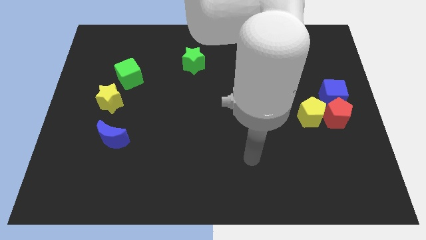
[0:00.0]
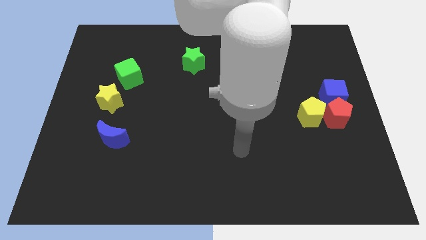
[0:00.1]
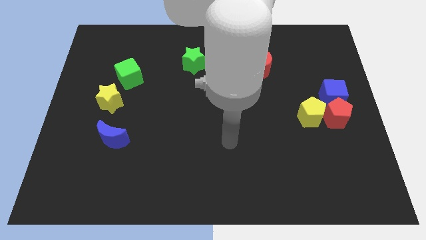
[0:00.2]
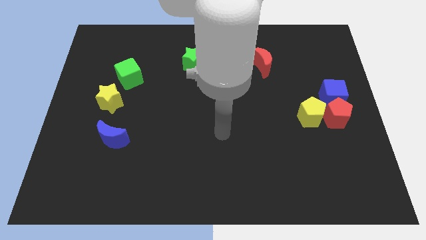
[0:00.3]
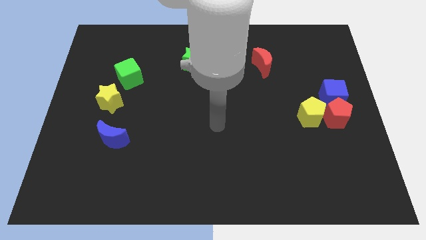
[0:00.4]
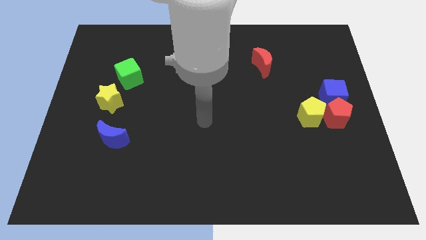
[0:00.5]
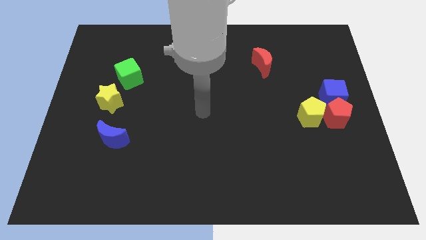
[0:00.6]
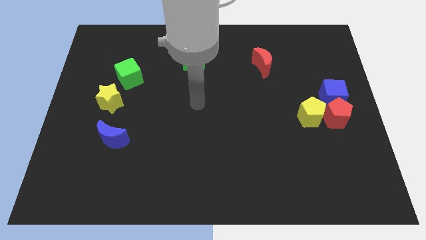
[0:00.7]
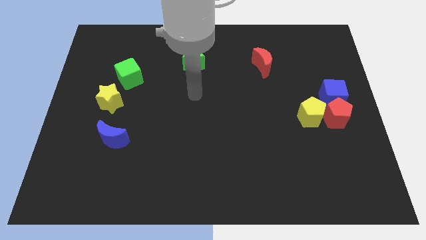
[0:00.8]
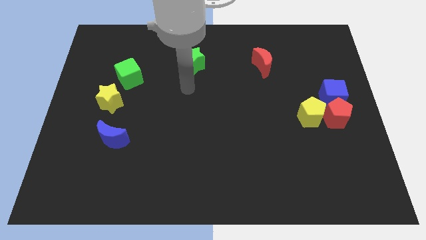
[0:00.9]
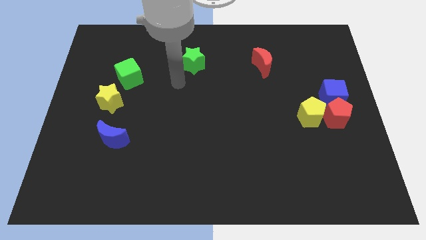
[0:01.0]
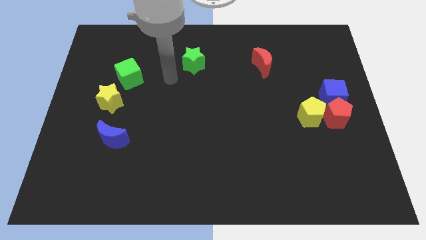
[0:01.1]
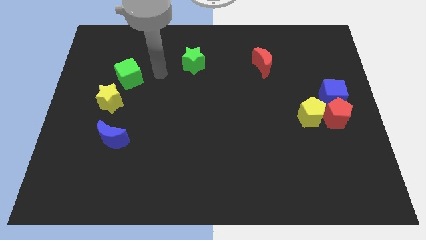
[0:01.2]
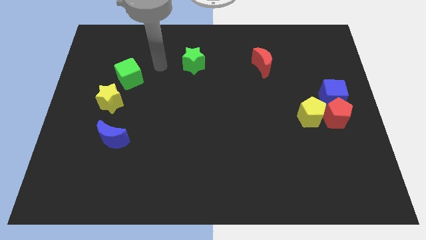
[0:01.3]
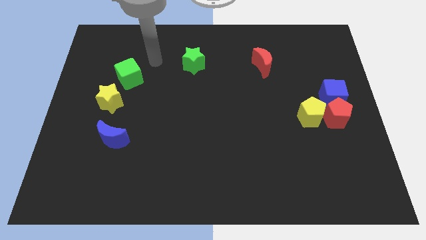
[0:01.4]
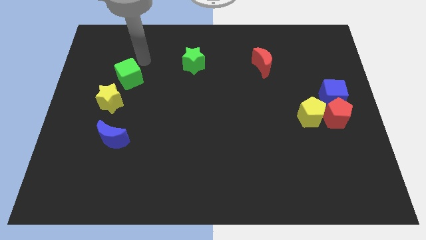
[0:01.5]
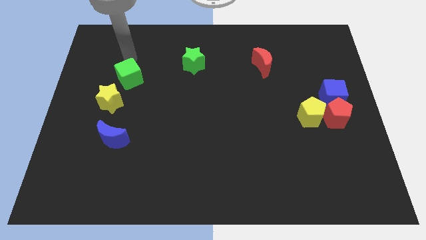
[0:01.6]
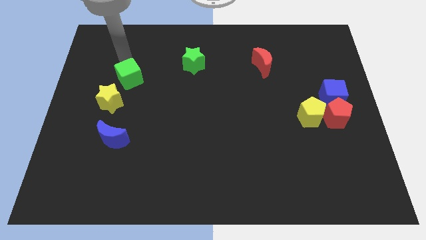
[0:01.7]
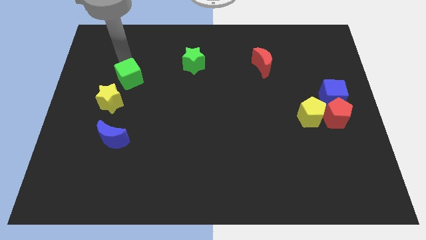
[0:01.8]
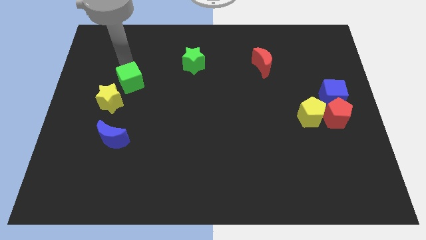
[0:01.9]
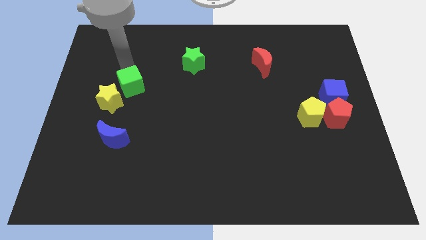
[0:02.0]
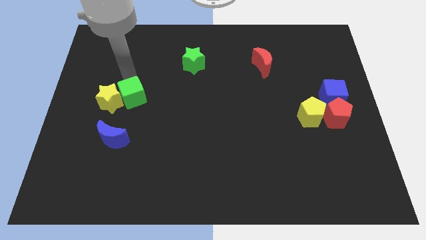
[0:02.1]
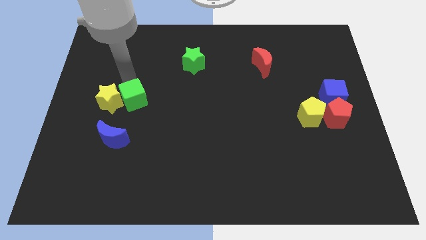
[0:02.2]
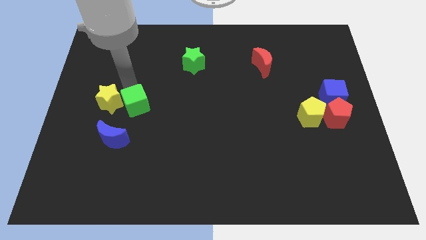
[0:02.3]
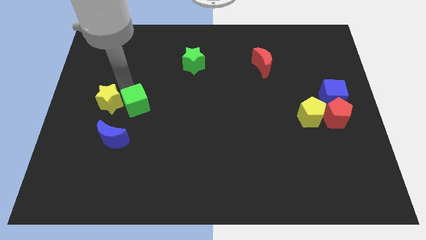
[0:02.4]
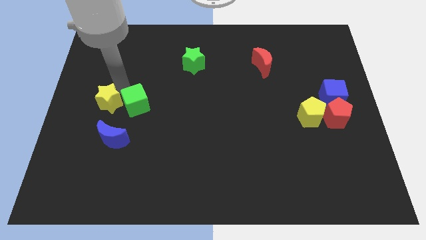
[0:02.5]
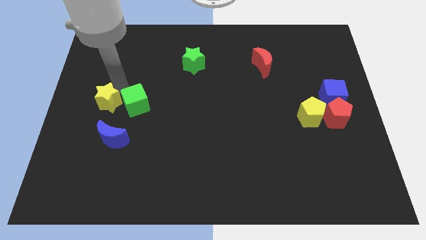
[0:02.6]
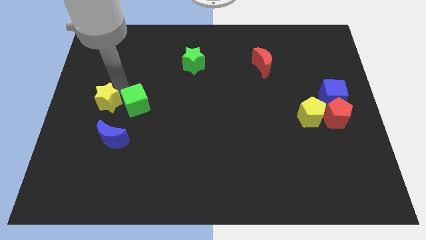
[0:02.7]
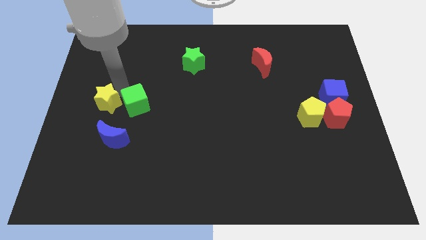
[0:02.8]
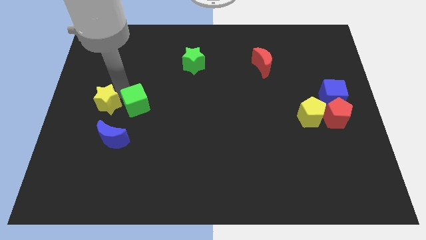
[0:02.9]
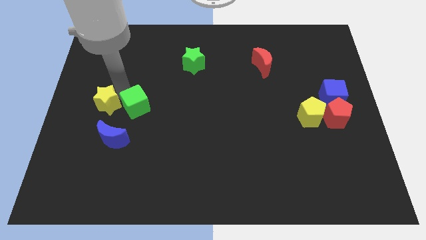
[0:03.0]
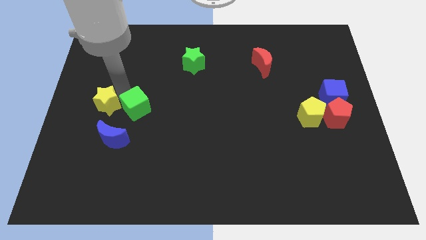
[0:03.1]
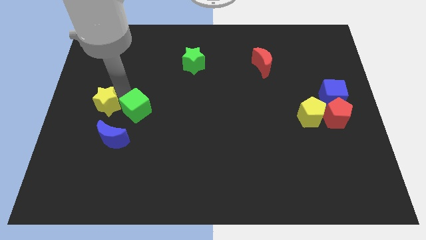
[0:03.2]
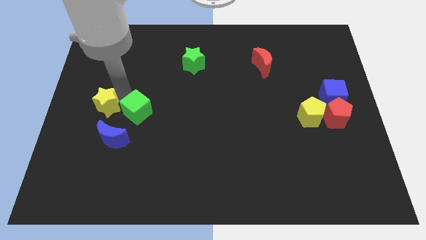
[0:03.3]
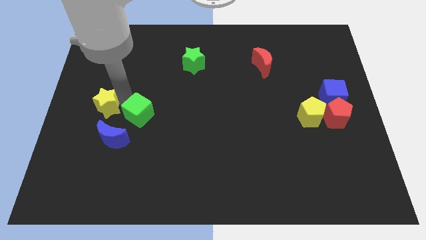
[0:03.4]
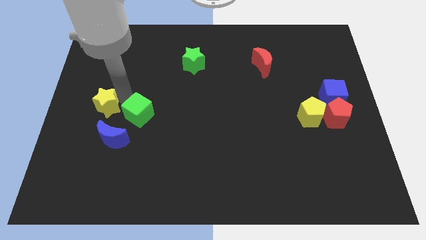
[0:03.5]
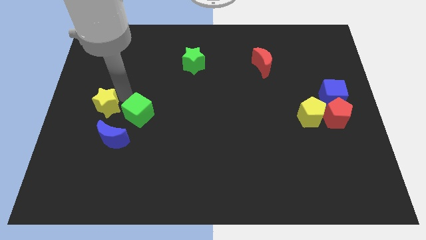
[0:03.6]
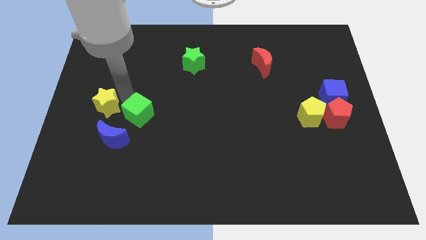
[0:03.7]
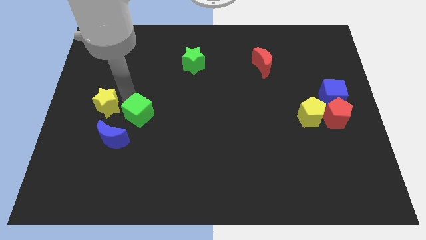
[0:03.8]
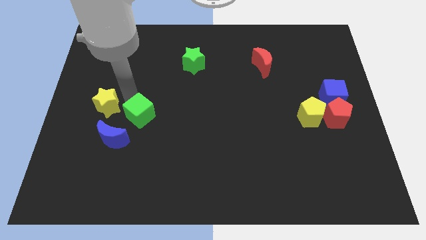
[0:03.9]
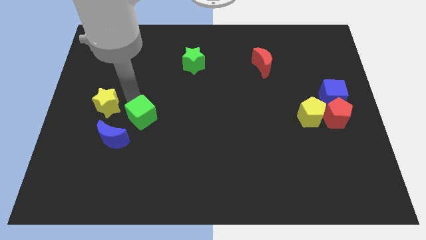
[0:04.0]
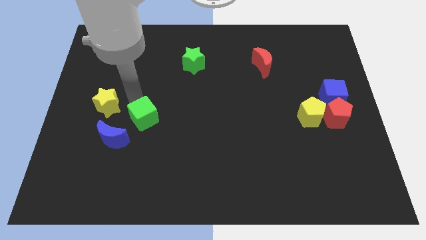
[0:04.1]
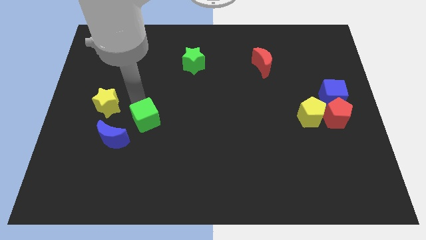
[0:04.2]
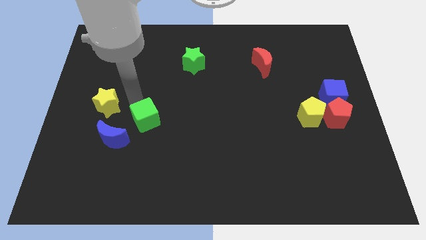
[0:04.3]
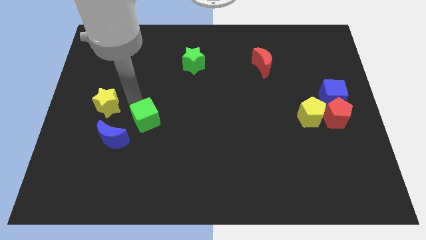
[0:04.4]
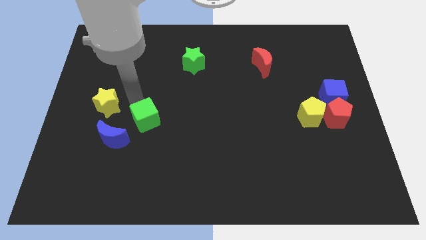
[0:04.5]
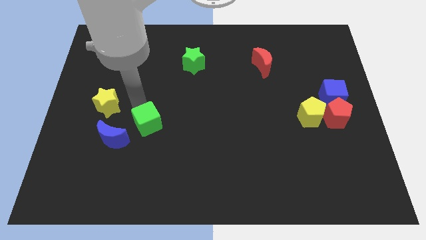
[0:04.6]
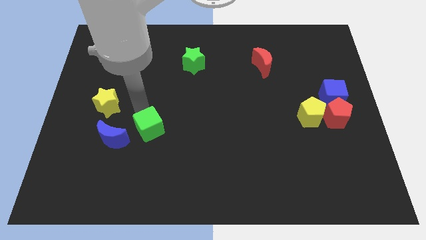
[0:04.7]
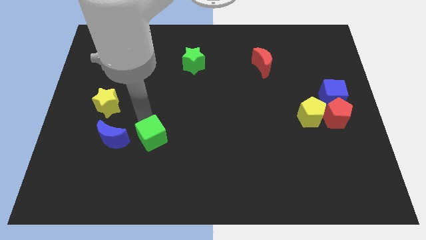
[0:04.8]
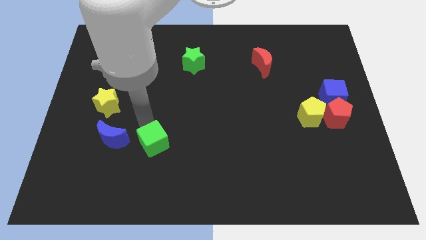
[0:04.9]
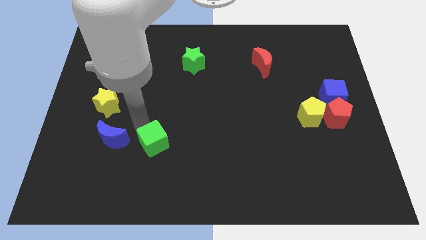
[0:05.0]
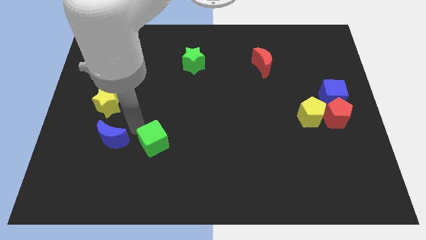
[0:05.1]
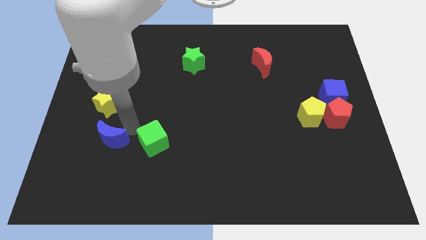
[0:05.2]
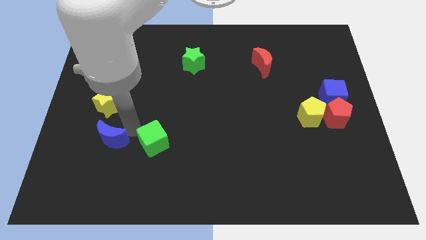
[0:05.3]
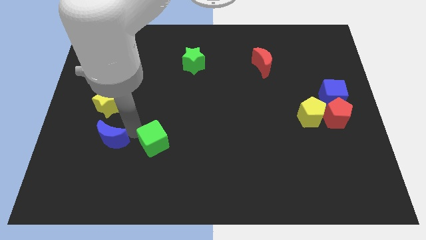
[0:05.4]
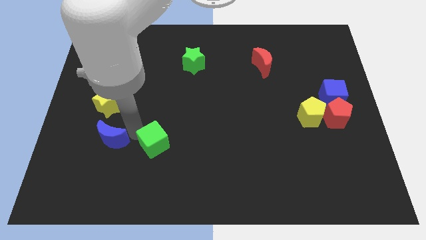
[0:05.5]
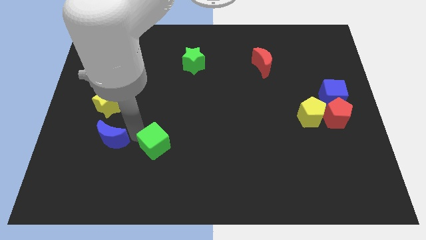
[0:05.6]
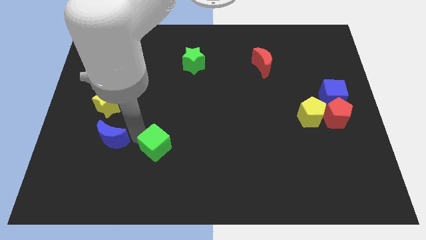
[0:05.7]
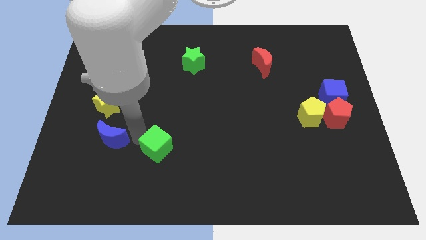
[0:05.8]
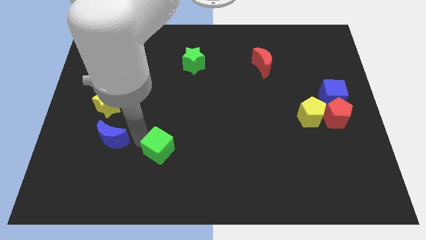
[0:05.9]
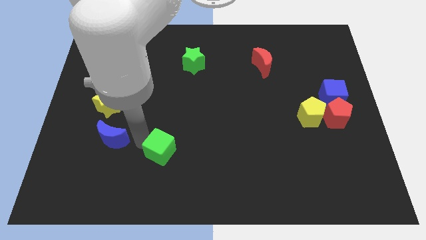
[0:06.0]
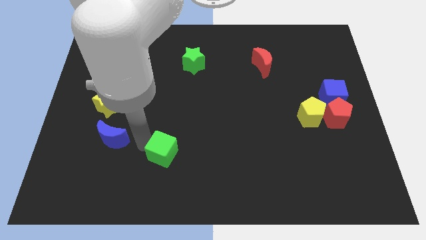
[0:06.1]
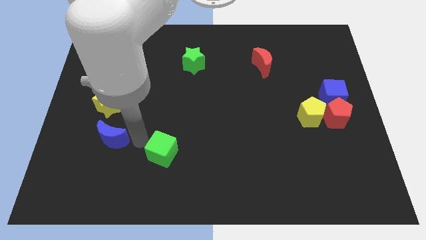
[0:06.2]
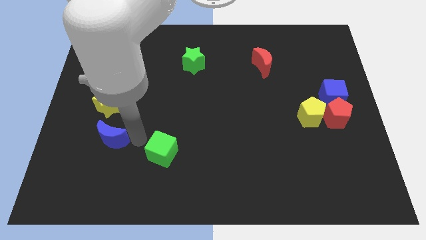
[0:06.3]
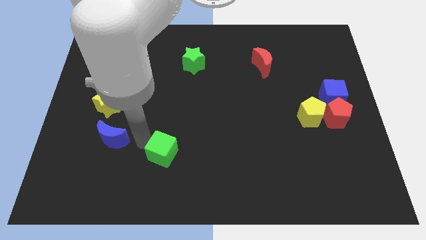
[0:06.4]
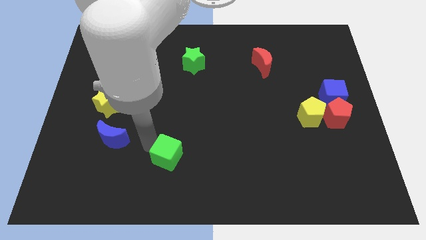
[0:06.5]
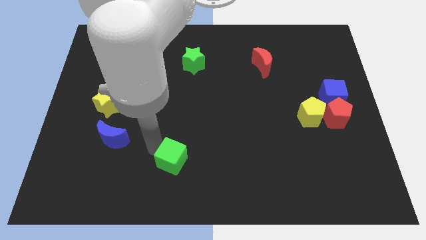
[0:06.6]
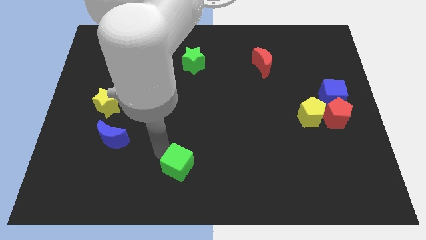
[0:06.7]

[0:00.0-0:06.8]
put the green cube to the bottom side
